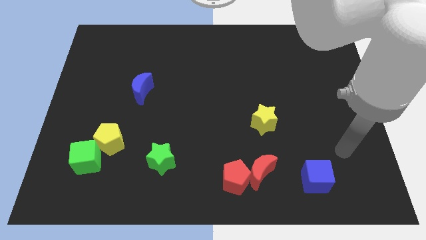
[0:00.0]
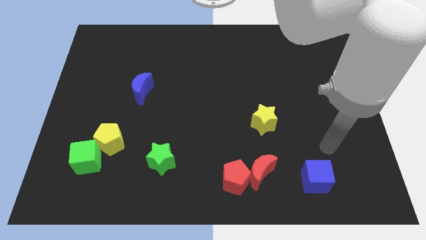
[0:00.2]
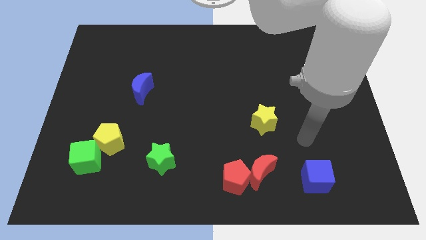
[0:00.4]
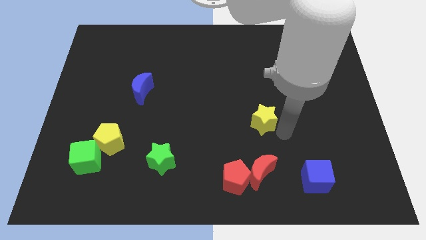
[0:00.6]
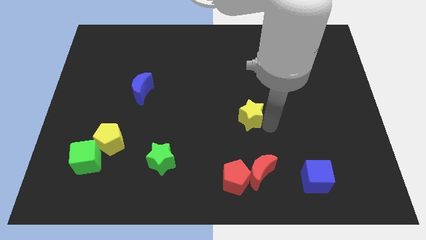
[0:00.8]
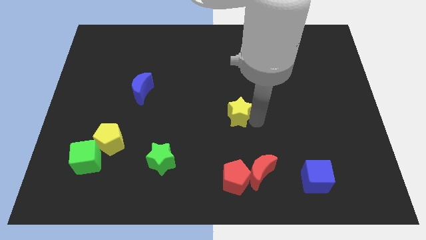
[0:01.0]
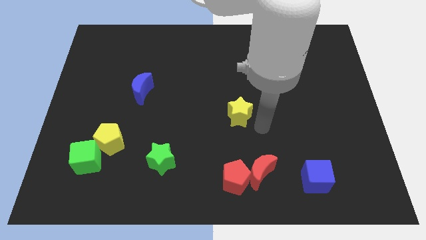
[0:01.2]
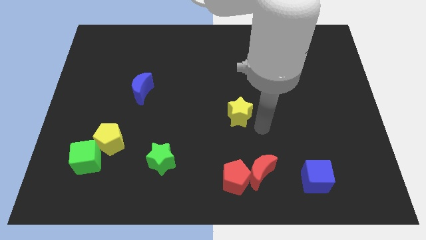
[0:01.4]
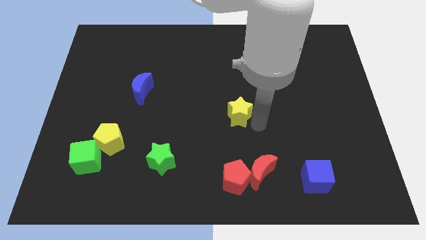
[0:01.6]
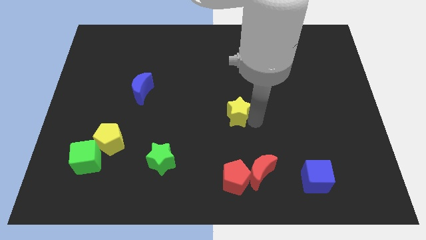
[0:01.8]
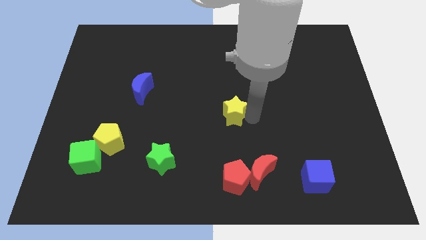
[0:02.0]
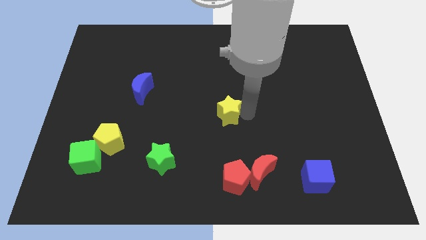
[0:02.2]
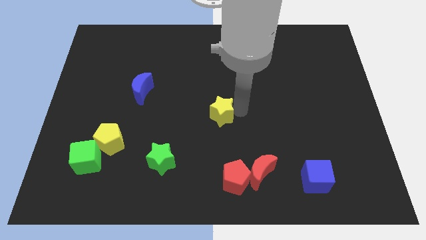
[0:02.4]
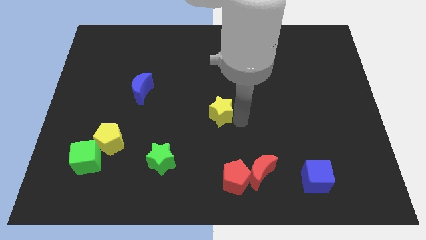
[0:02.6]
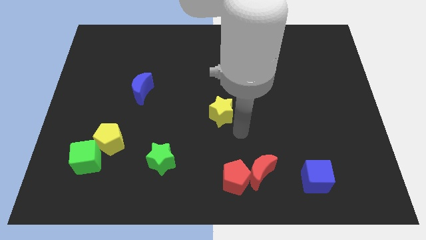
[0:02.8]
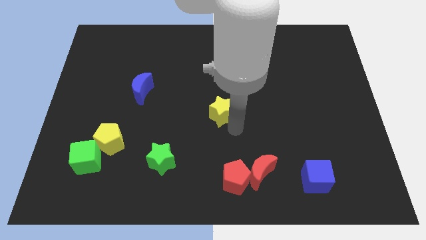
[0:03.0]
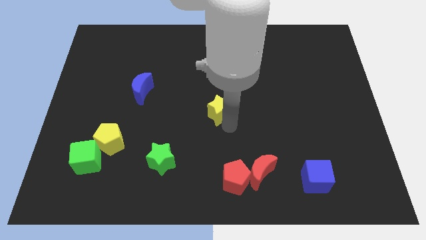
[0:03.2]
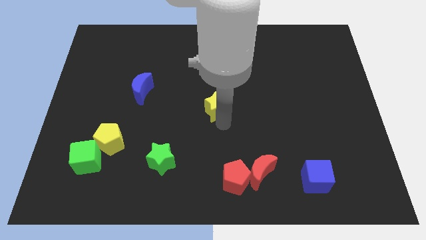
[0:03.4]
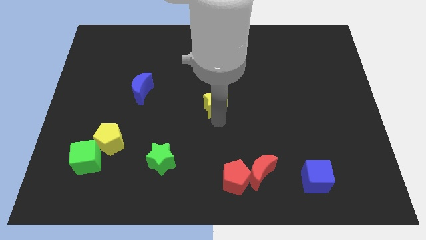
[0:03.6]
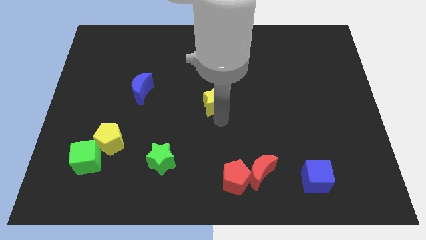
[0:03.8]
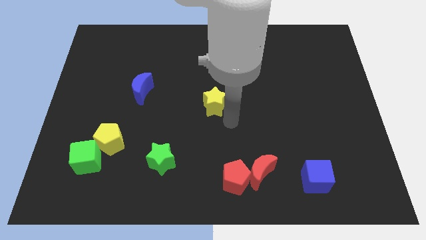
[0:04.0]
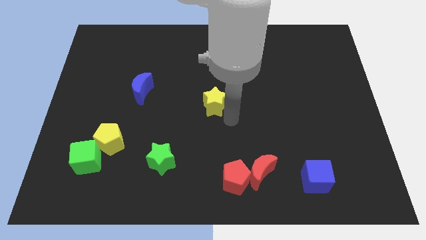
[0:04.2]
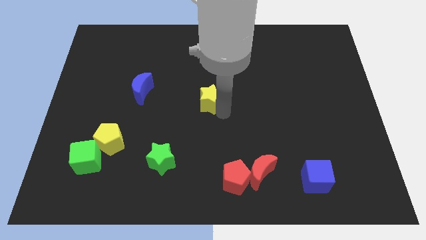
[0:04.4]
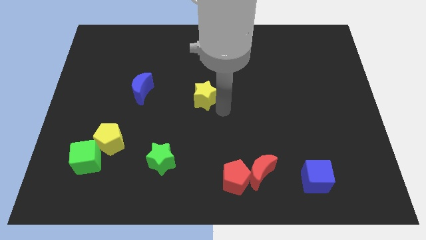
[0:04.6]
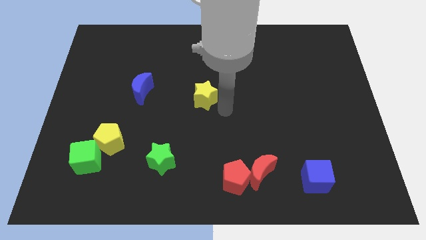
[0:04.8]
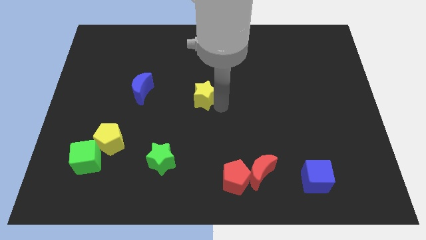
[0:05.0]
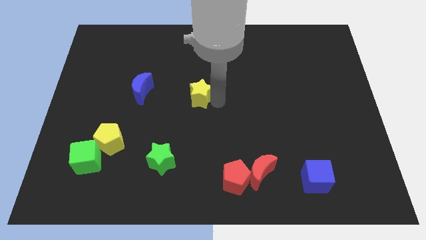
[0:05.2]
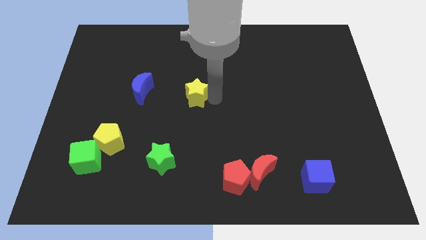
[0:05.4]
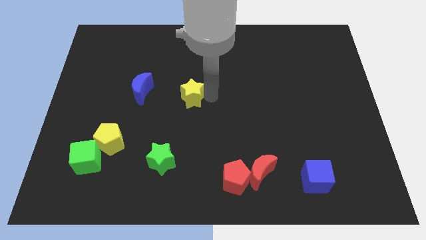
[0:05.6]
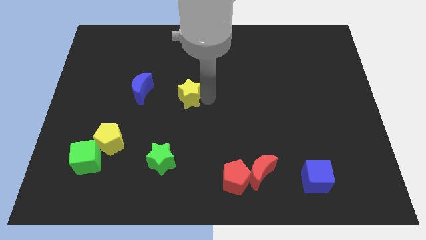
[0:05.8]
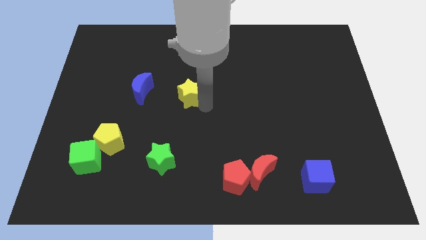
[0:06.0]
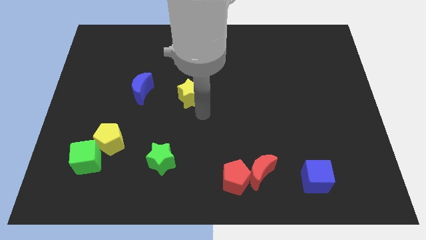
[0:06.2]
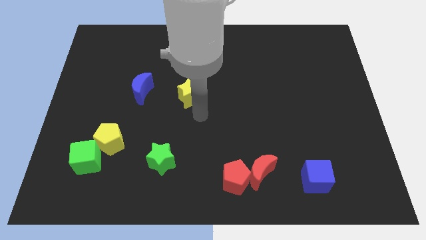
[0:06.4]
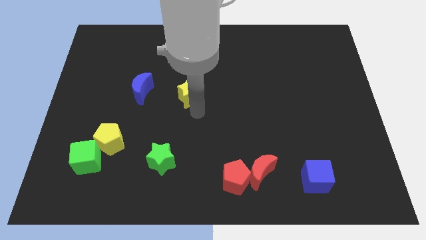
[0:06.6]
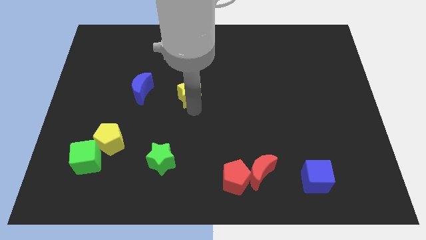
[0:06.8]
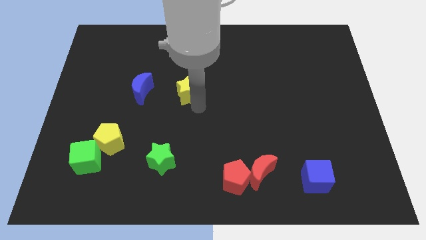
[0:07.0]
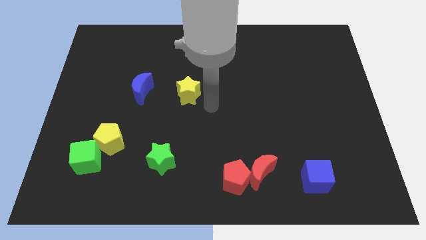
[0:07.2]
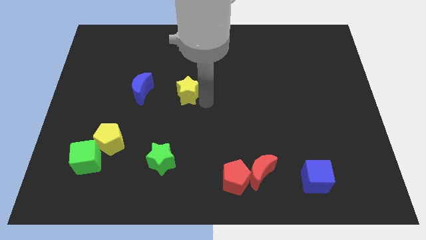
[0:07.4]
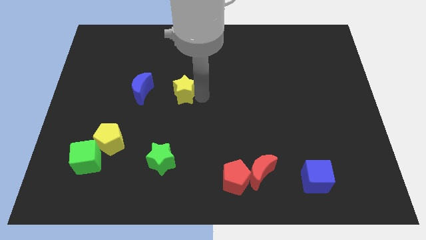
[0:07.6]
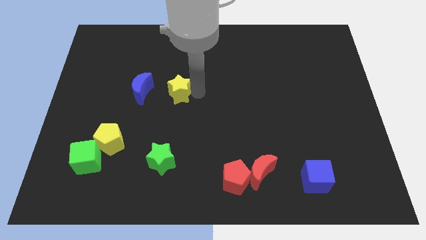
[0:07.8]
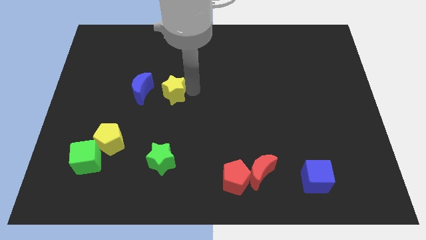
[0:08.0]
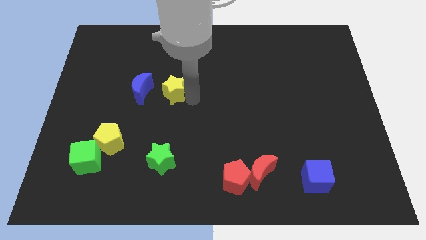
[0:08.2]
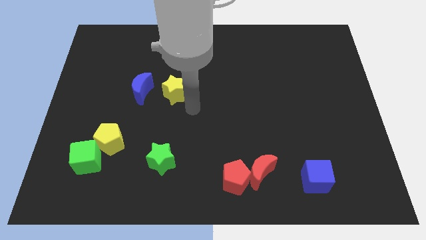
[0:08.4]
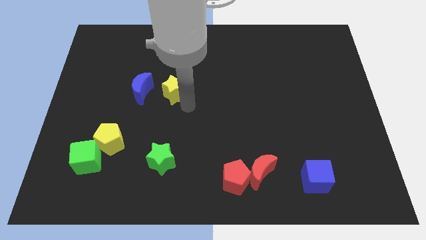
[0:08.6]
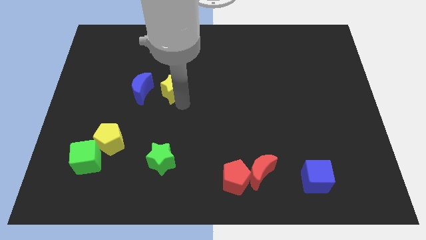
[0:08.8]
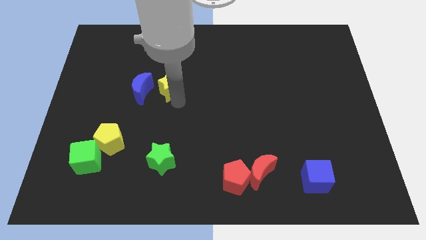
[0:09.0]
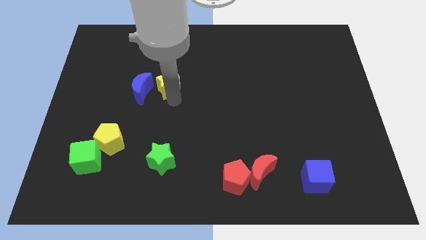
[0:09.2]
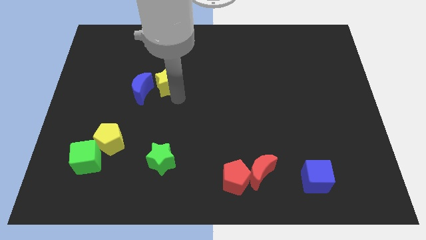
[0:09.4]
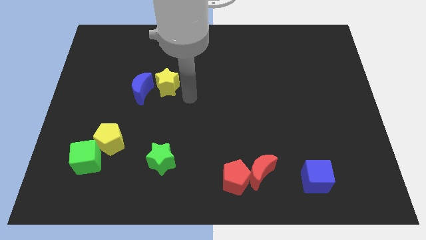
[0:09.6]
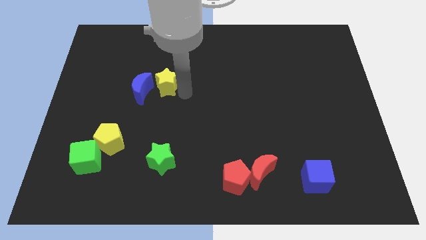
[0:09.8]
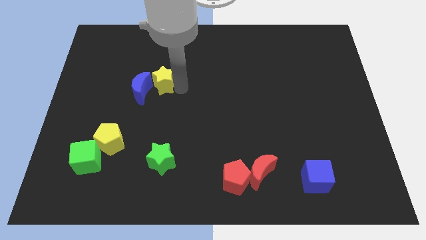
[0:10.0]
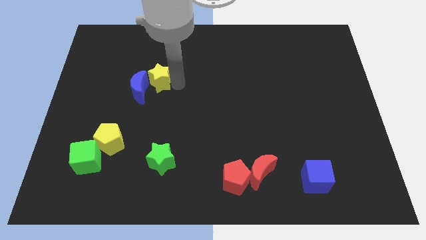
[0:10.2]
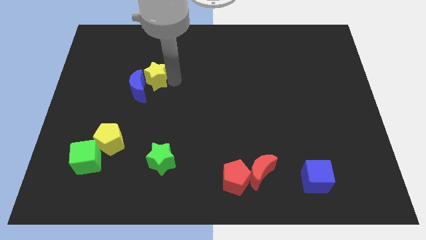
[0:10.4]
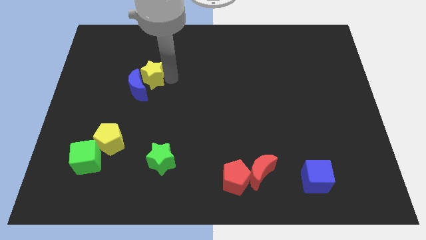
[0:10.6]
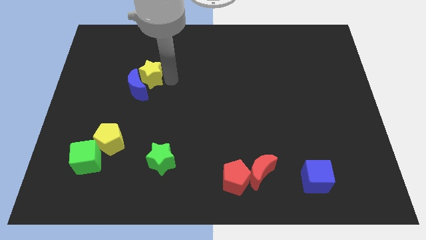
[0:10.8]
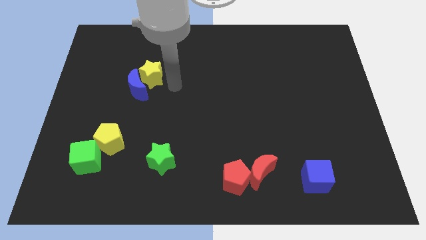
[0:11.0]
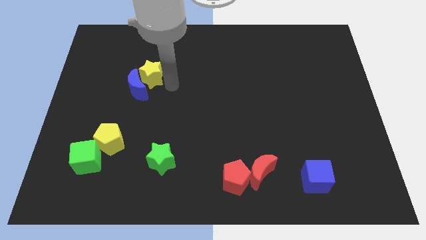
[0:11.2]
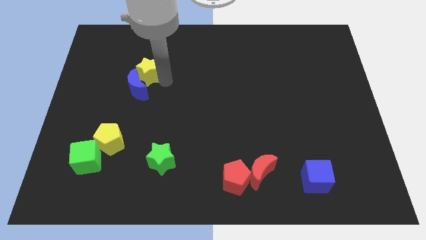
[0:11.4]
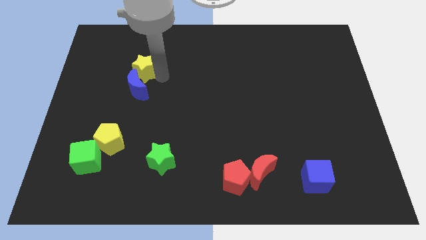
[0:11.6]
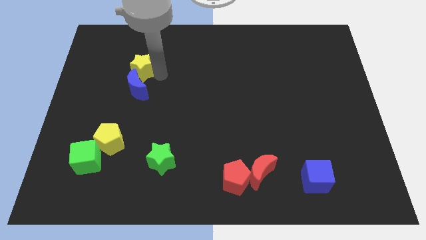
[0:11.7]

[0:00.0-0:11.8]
move the yellow star to the top left of the blue moon
